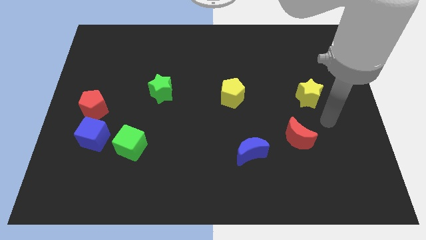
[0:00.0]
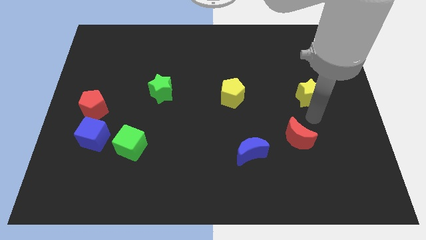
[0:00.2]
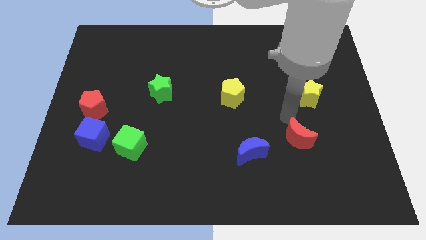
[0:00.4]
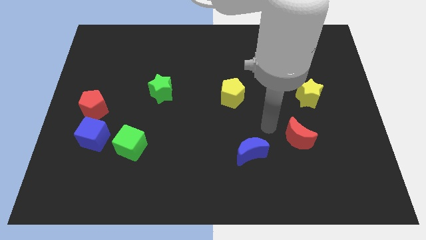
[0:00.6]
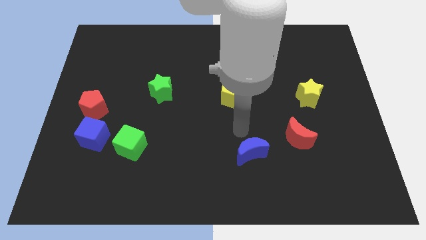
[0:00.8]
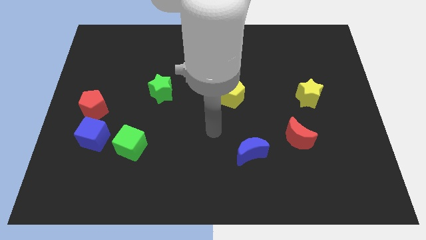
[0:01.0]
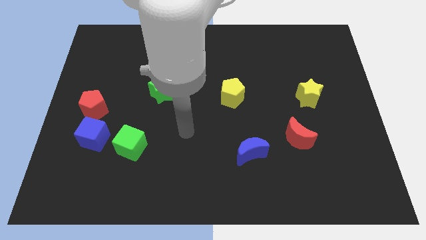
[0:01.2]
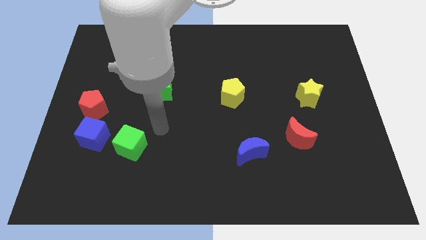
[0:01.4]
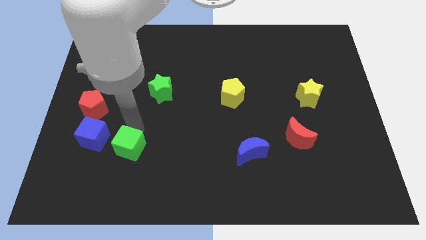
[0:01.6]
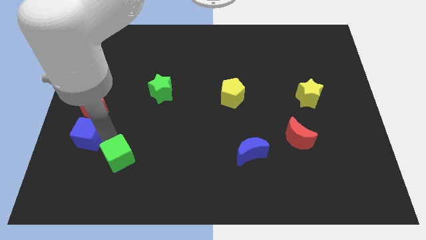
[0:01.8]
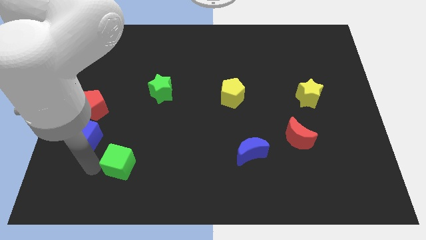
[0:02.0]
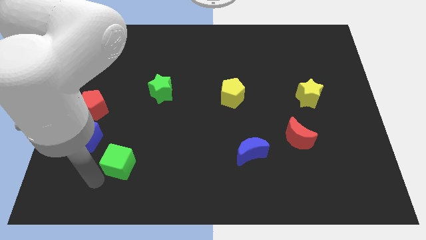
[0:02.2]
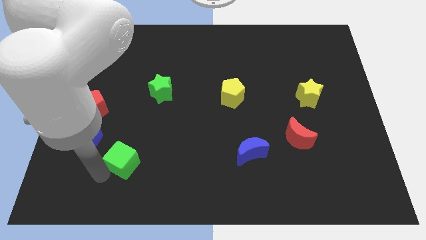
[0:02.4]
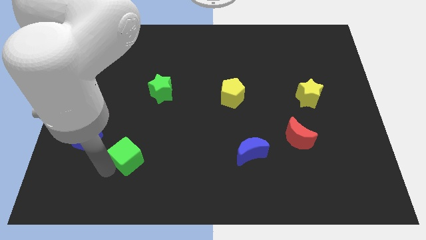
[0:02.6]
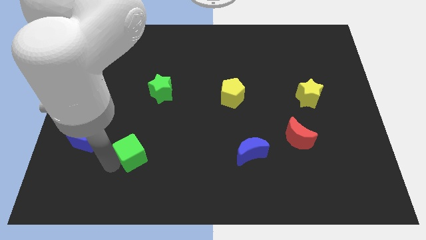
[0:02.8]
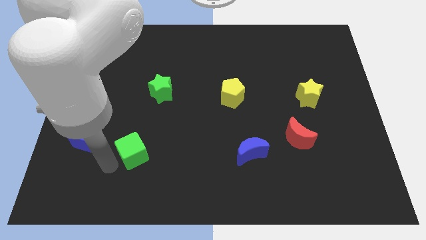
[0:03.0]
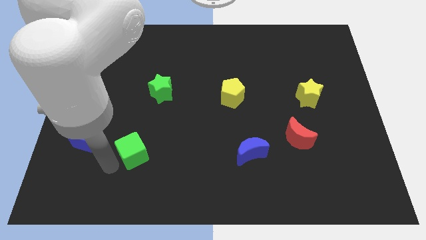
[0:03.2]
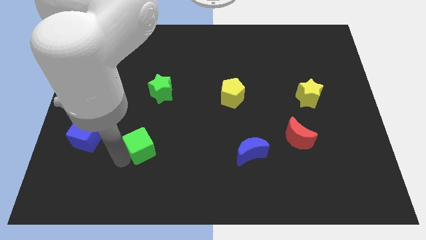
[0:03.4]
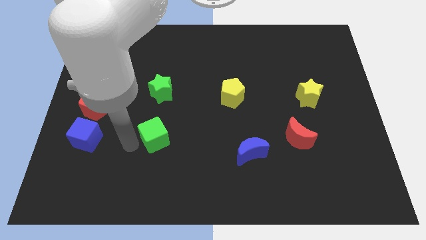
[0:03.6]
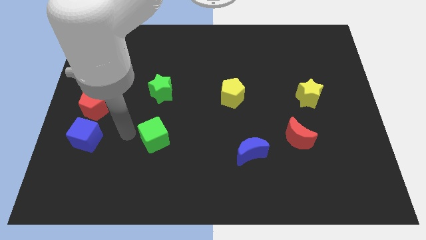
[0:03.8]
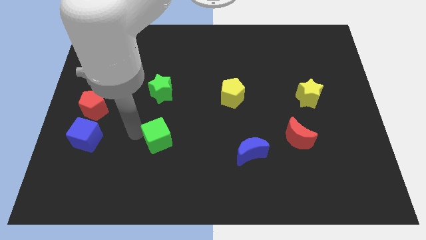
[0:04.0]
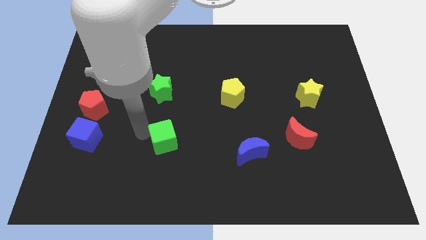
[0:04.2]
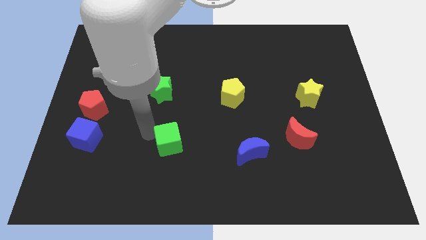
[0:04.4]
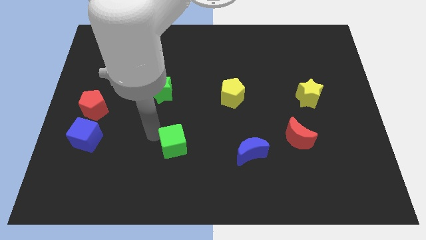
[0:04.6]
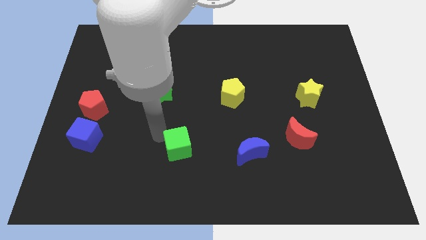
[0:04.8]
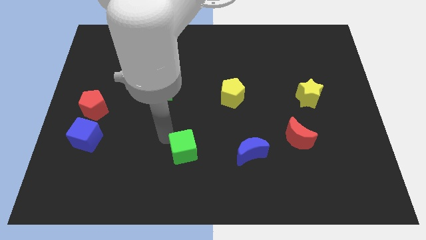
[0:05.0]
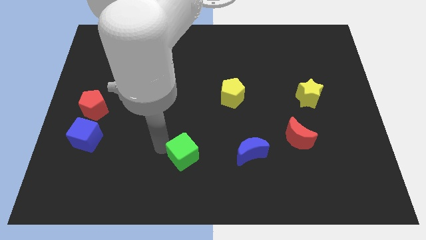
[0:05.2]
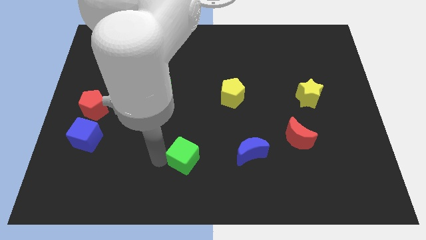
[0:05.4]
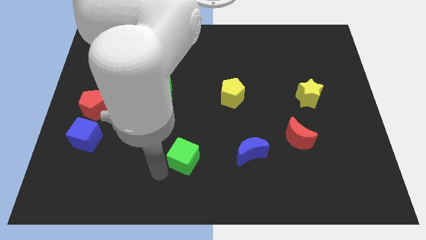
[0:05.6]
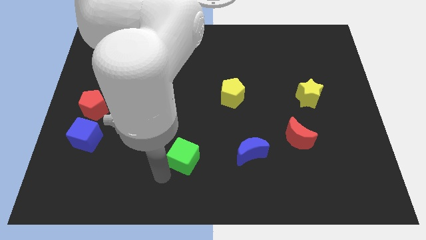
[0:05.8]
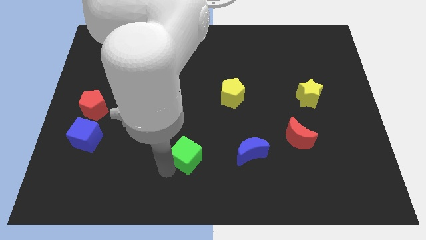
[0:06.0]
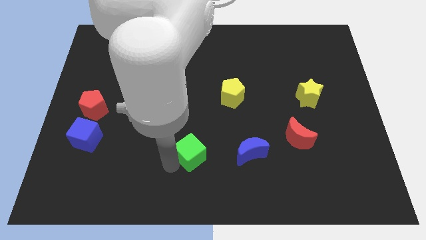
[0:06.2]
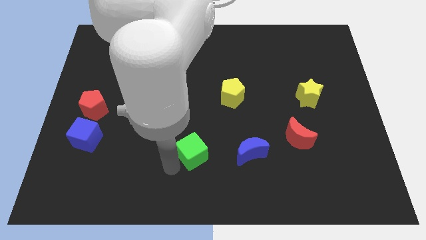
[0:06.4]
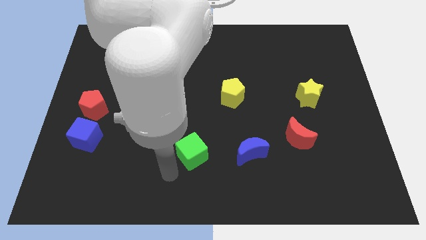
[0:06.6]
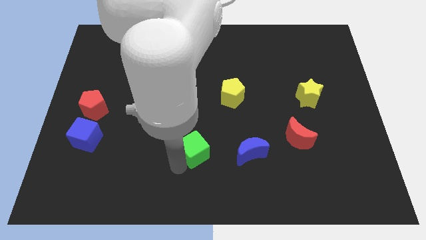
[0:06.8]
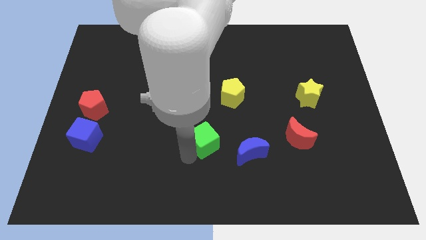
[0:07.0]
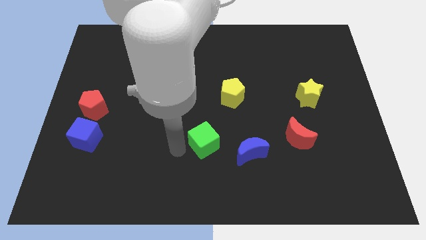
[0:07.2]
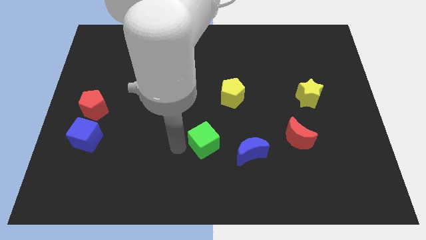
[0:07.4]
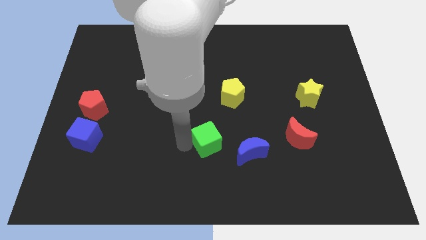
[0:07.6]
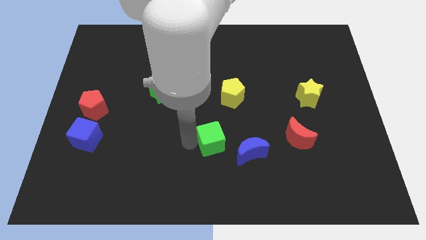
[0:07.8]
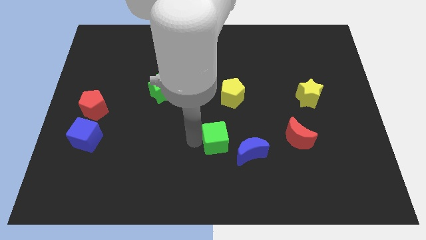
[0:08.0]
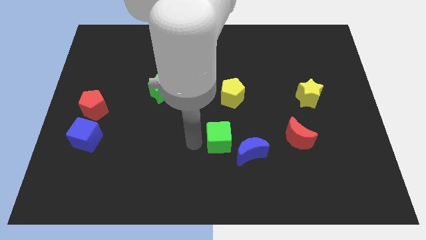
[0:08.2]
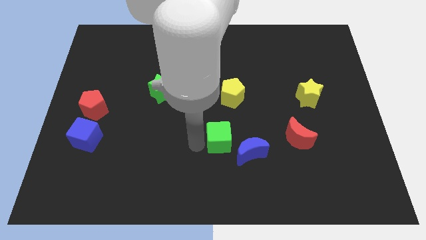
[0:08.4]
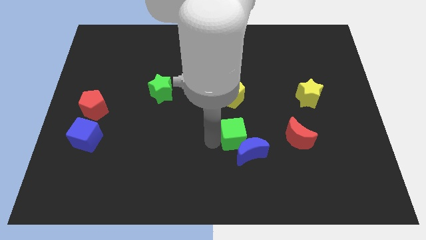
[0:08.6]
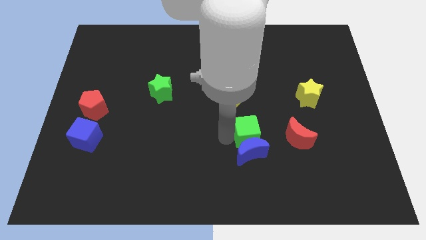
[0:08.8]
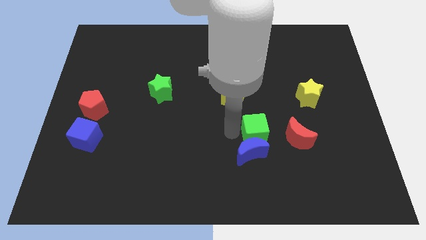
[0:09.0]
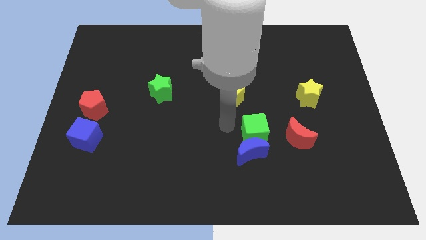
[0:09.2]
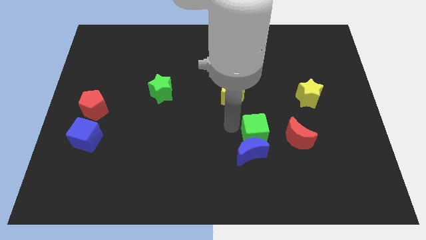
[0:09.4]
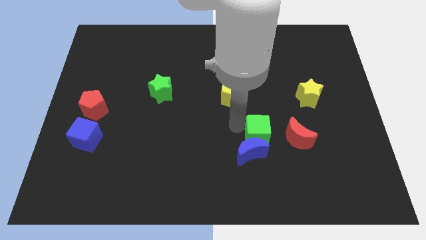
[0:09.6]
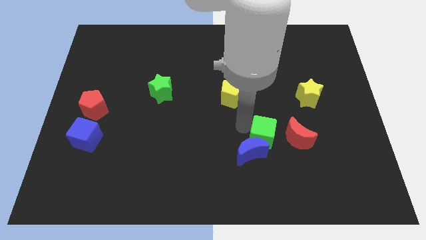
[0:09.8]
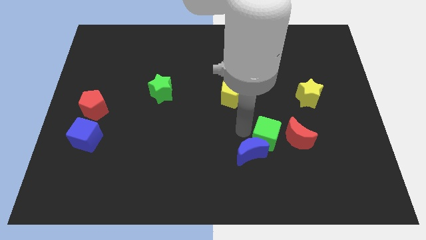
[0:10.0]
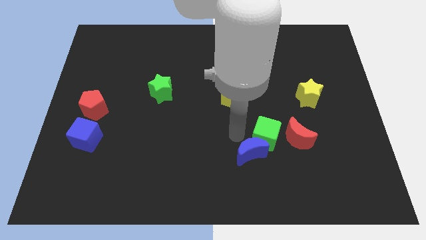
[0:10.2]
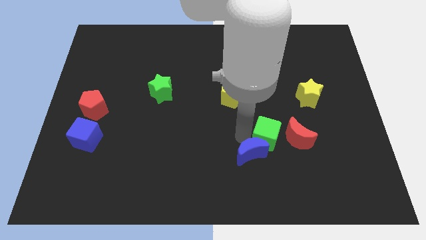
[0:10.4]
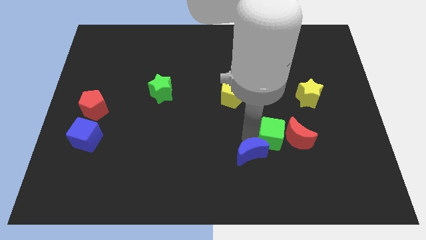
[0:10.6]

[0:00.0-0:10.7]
slide the green cube next to the red moon

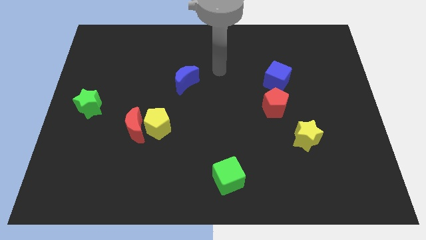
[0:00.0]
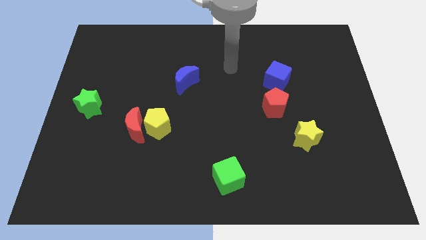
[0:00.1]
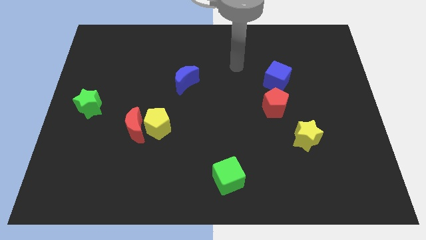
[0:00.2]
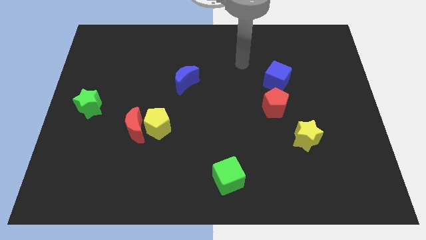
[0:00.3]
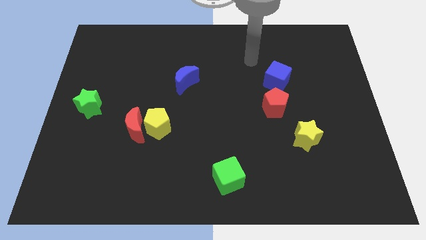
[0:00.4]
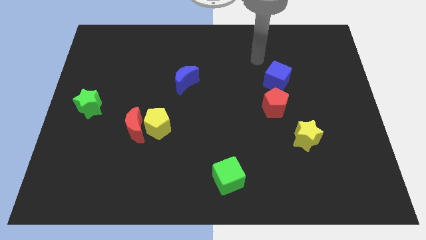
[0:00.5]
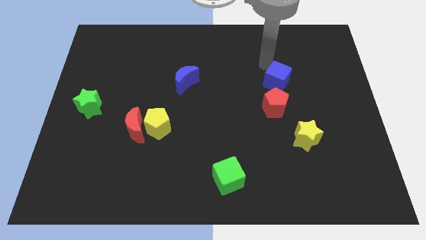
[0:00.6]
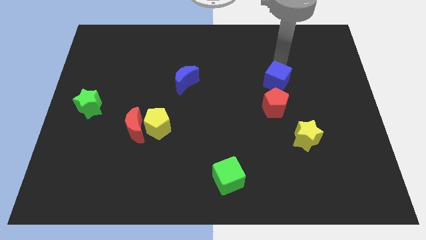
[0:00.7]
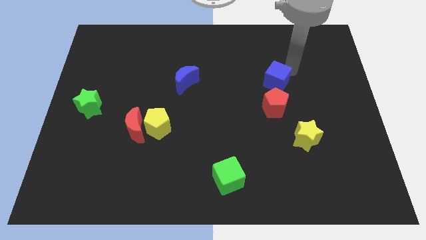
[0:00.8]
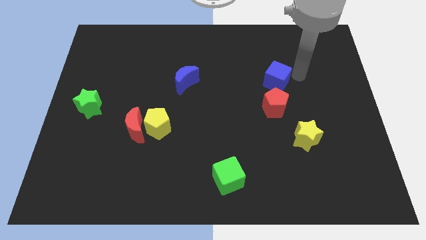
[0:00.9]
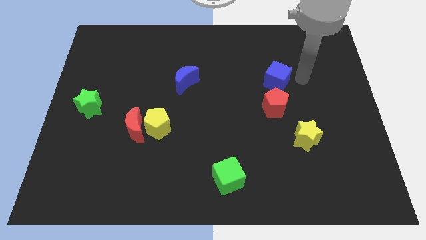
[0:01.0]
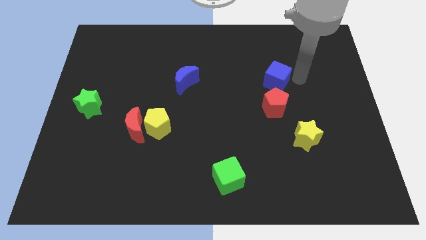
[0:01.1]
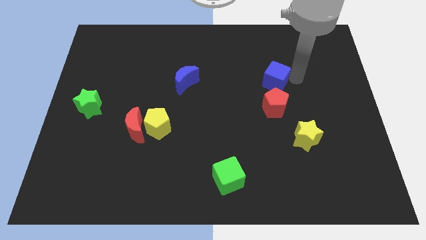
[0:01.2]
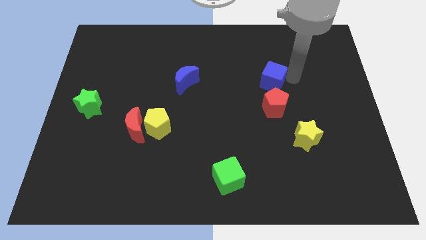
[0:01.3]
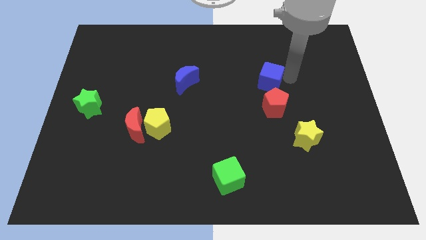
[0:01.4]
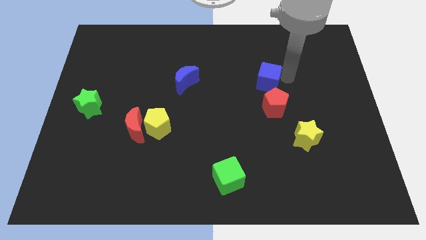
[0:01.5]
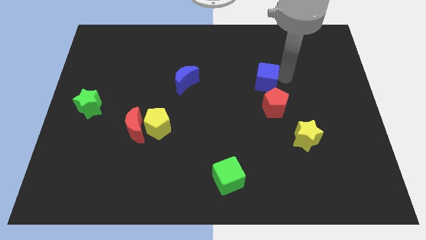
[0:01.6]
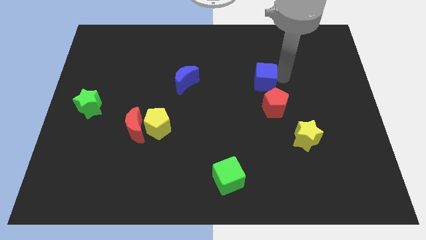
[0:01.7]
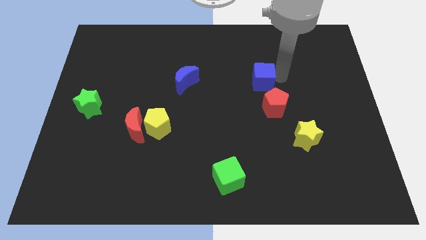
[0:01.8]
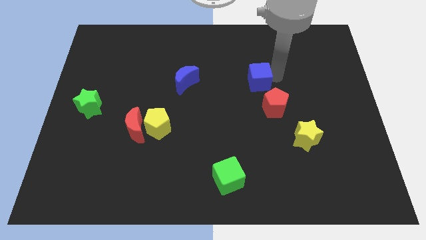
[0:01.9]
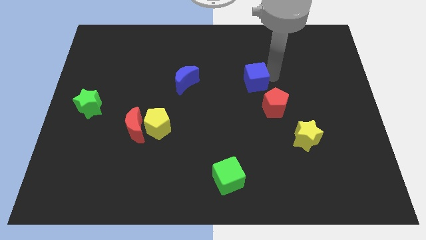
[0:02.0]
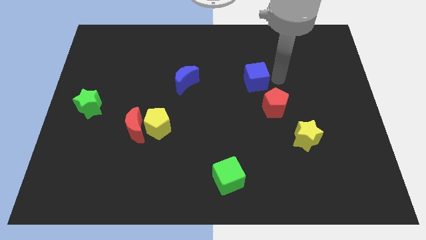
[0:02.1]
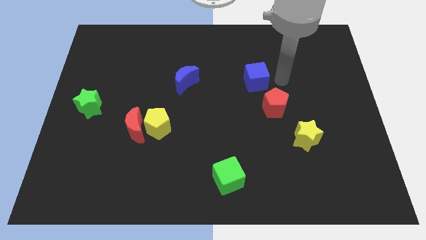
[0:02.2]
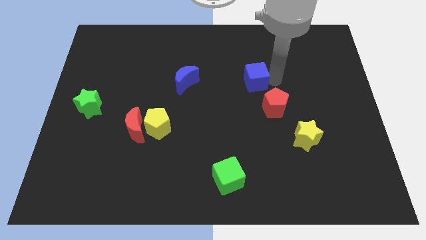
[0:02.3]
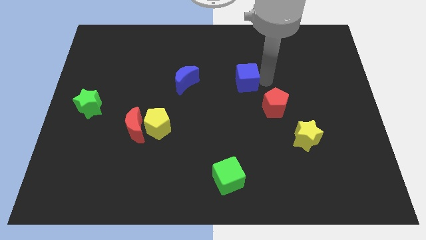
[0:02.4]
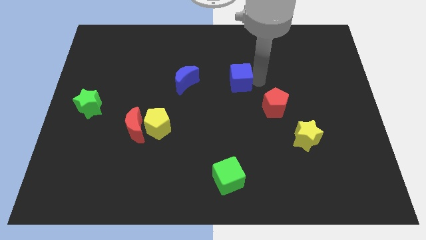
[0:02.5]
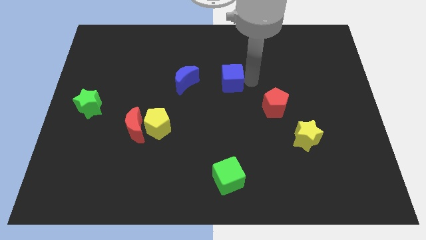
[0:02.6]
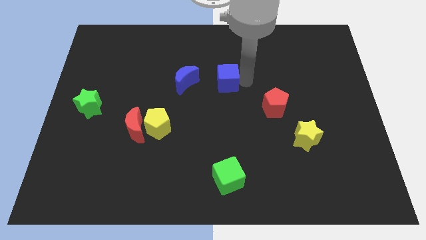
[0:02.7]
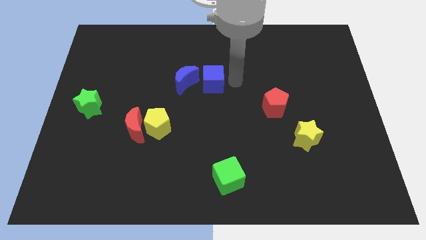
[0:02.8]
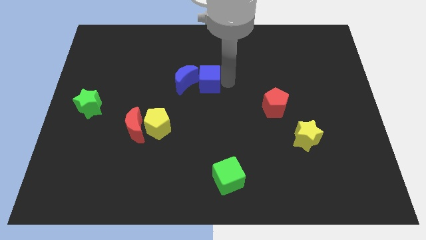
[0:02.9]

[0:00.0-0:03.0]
put the blue cube towards the blue moon
